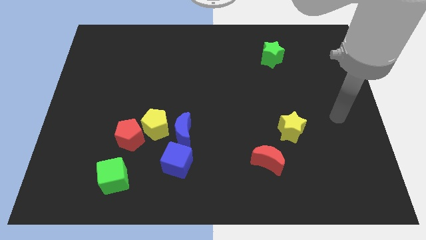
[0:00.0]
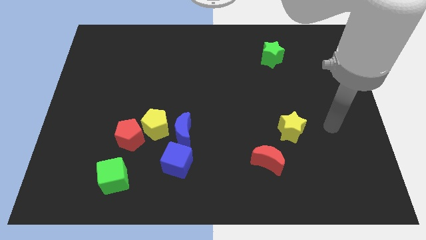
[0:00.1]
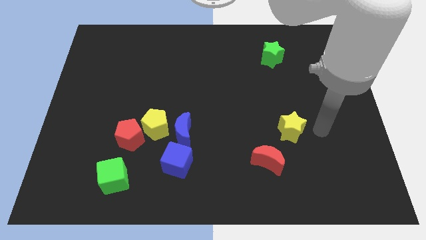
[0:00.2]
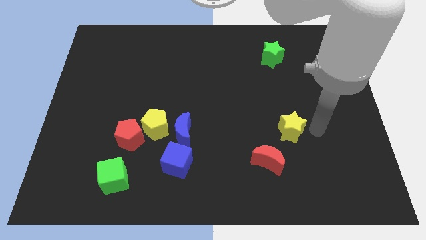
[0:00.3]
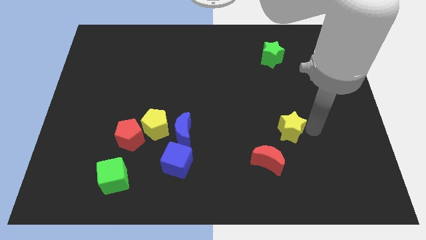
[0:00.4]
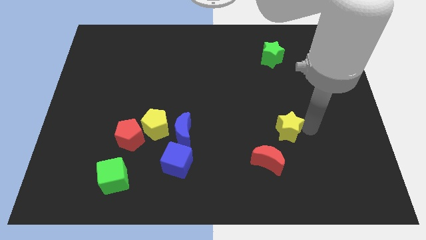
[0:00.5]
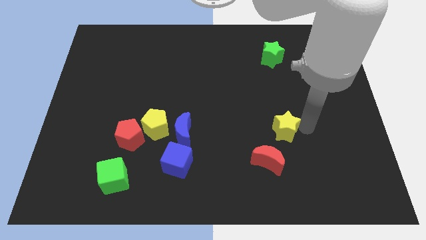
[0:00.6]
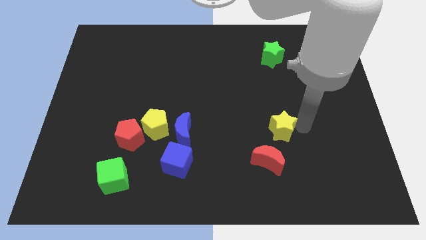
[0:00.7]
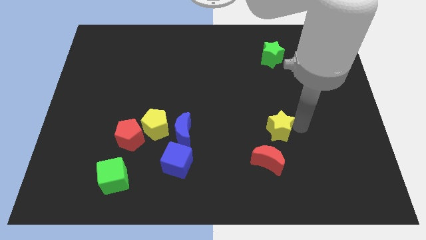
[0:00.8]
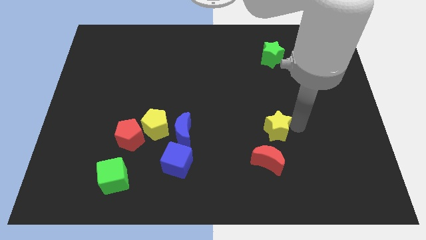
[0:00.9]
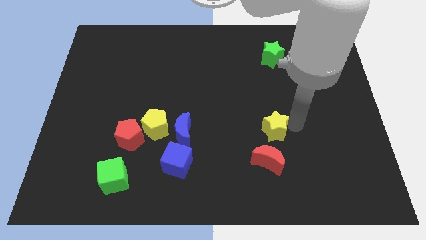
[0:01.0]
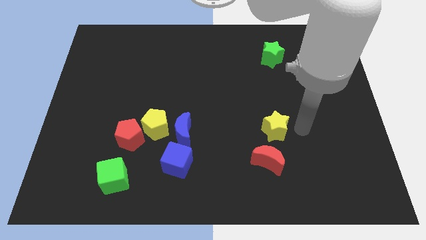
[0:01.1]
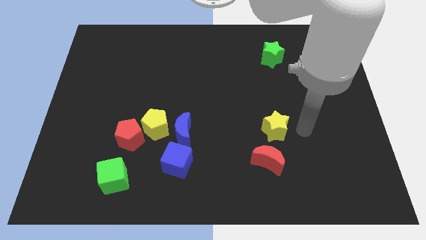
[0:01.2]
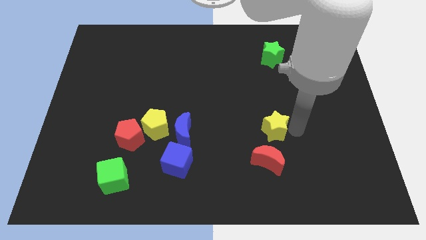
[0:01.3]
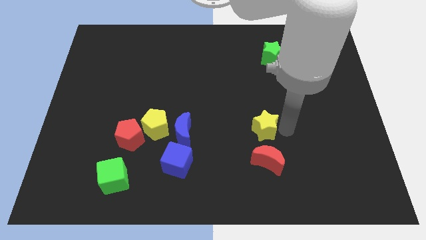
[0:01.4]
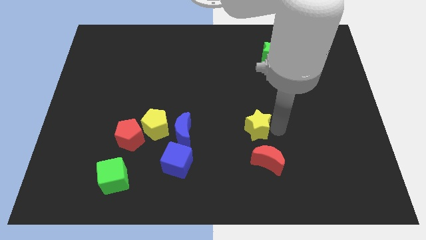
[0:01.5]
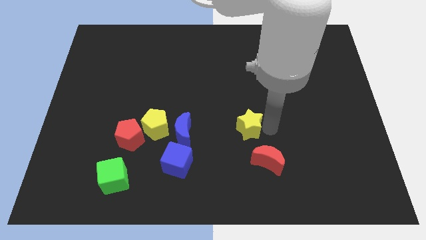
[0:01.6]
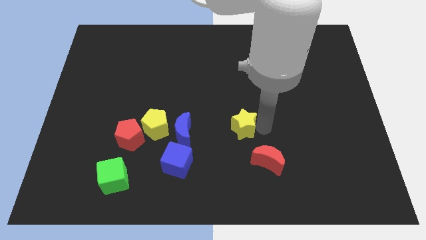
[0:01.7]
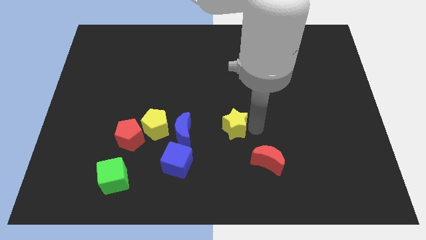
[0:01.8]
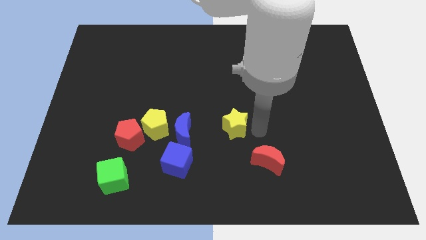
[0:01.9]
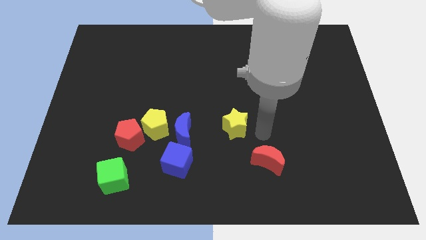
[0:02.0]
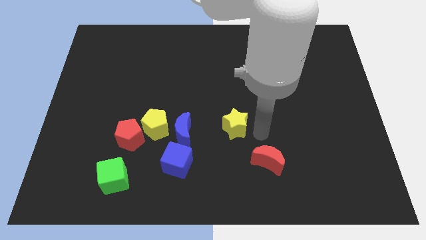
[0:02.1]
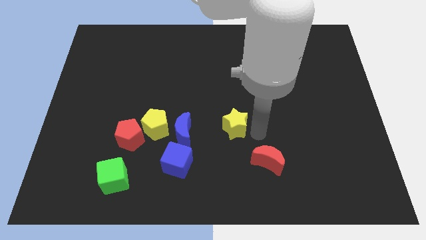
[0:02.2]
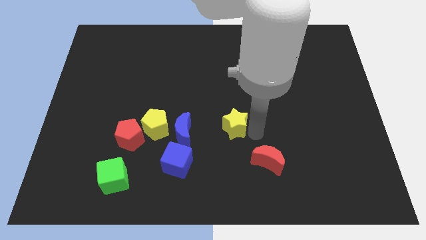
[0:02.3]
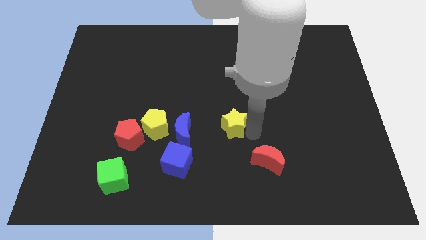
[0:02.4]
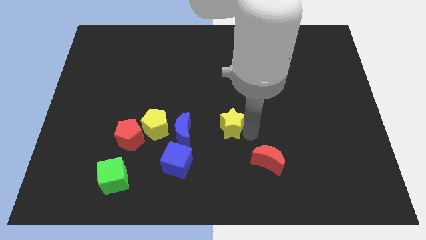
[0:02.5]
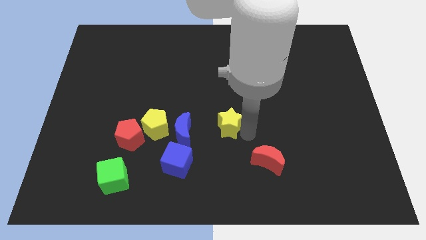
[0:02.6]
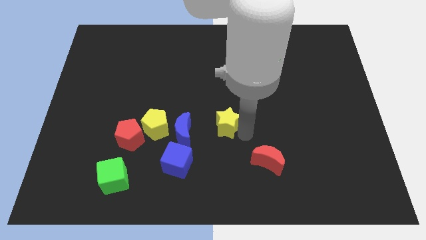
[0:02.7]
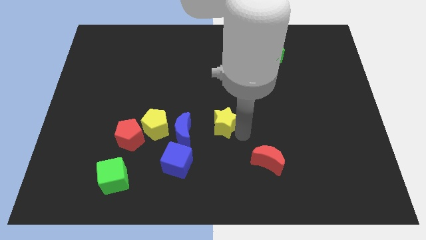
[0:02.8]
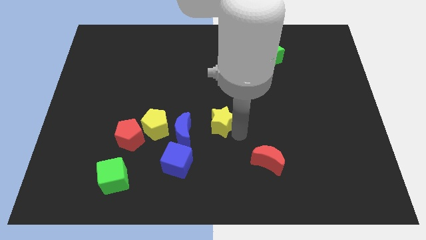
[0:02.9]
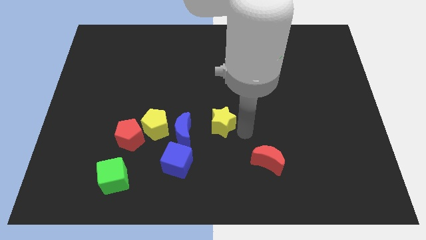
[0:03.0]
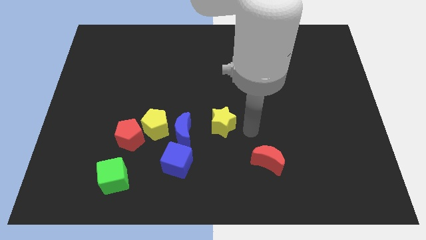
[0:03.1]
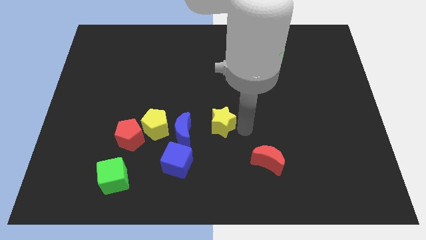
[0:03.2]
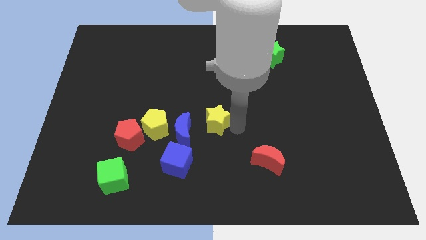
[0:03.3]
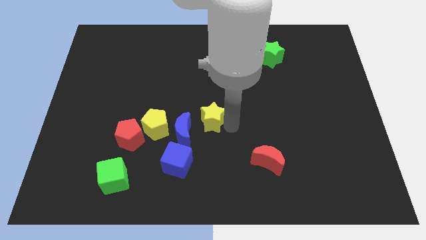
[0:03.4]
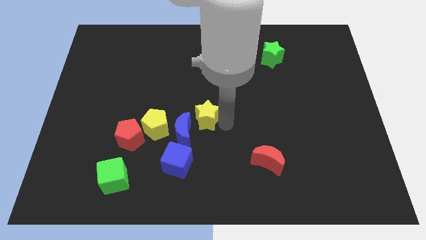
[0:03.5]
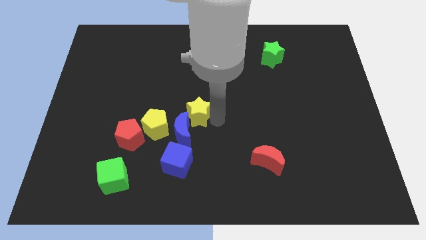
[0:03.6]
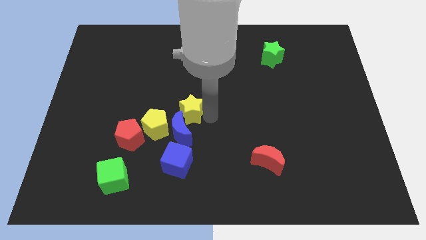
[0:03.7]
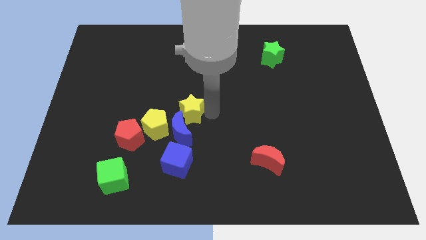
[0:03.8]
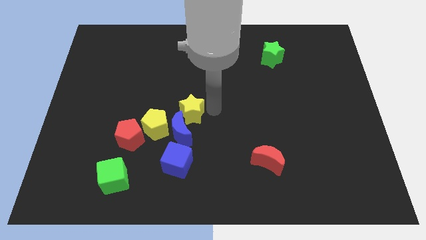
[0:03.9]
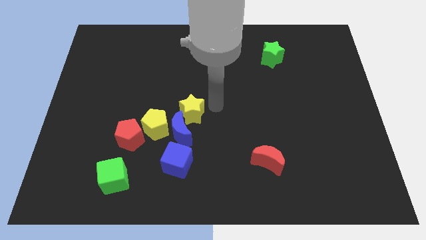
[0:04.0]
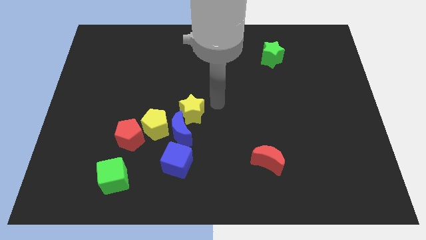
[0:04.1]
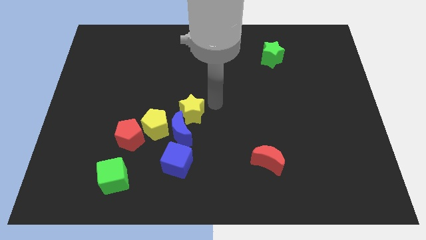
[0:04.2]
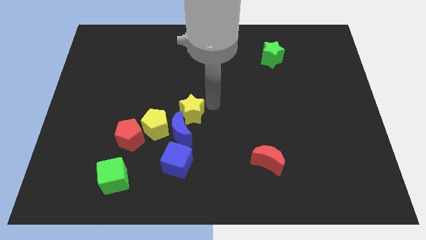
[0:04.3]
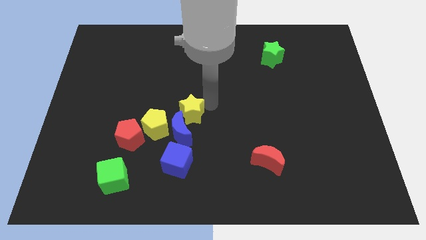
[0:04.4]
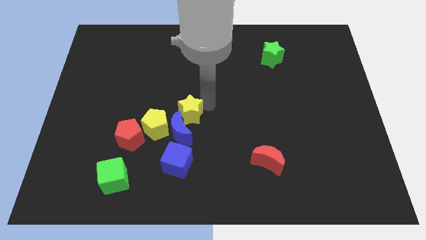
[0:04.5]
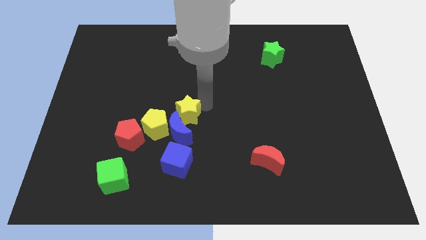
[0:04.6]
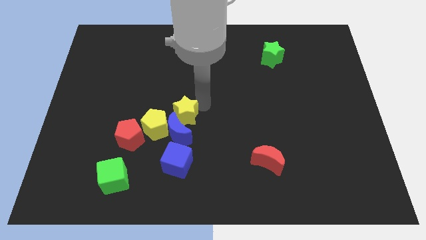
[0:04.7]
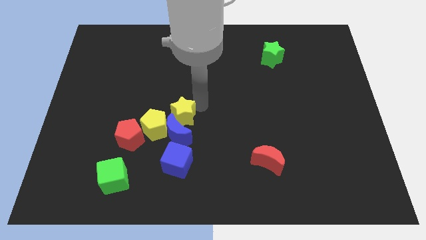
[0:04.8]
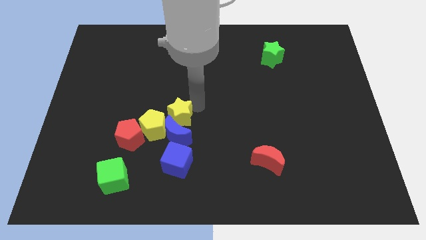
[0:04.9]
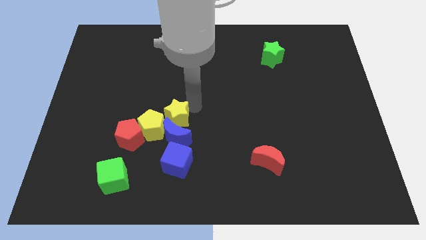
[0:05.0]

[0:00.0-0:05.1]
move the yellow star next to the yellow pentagon

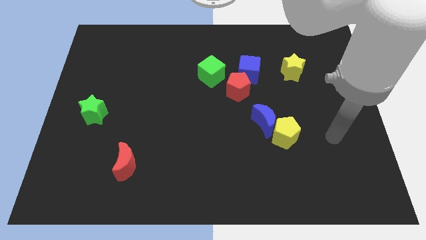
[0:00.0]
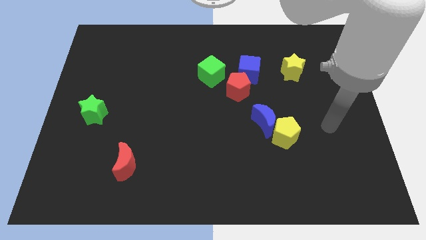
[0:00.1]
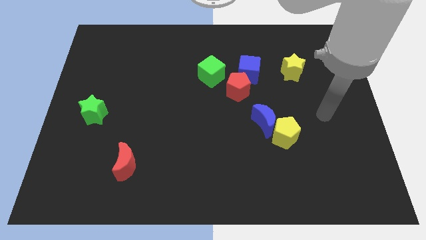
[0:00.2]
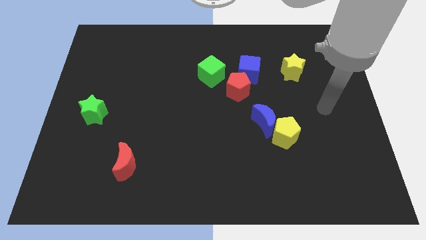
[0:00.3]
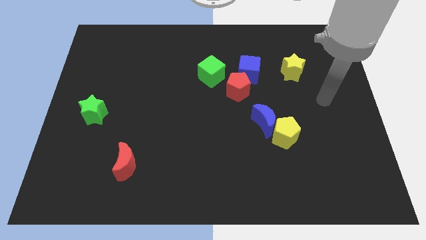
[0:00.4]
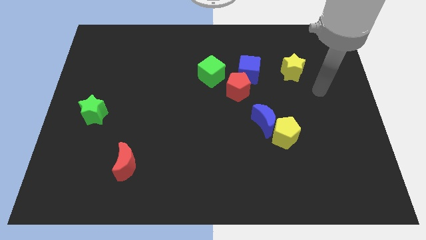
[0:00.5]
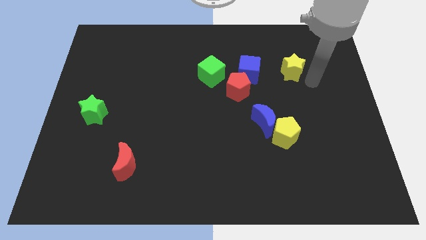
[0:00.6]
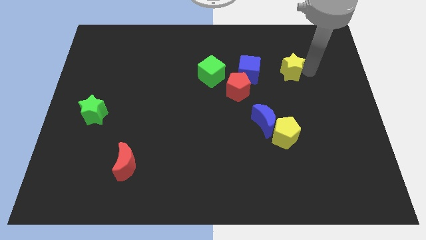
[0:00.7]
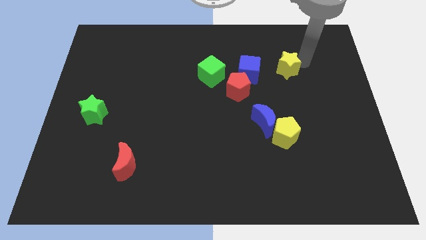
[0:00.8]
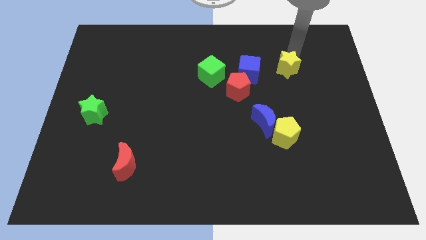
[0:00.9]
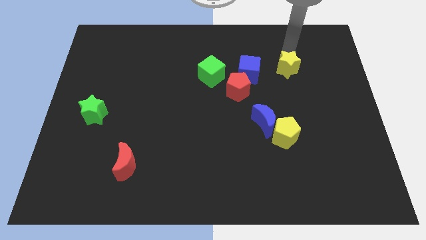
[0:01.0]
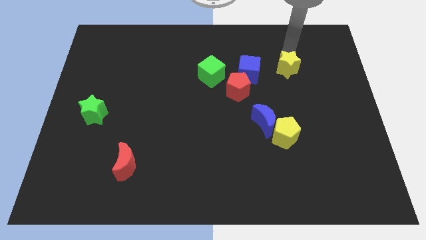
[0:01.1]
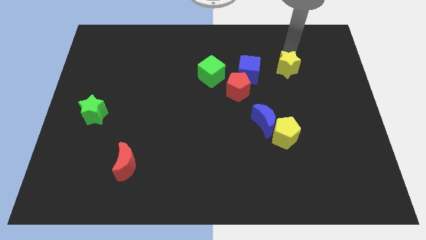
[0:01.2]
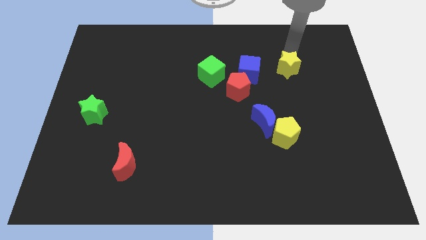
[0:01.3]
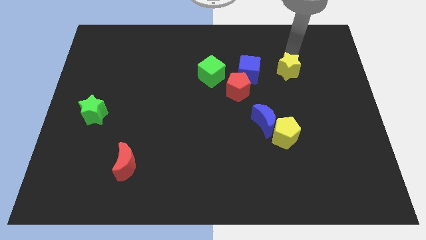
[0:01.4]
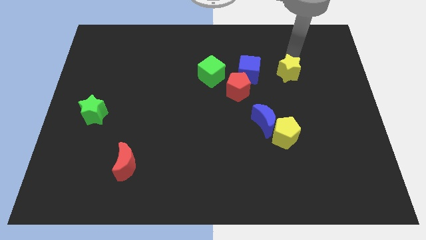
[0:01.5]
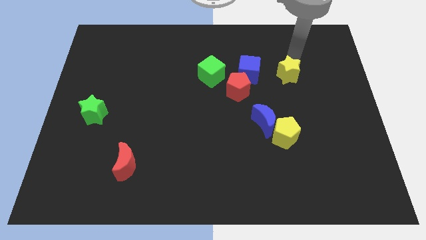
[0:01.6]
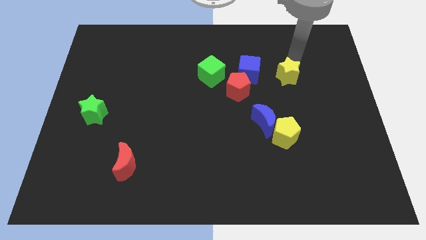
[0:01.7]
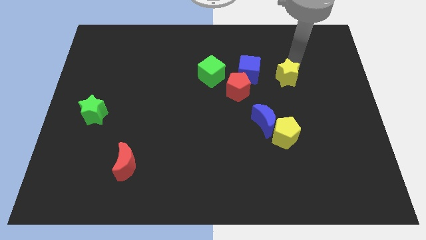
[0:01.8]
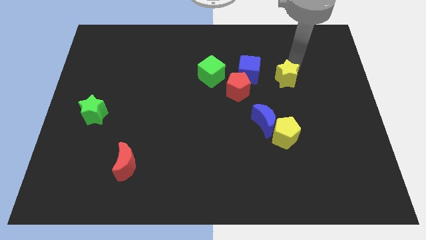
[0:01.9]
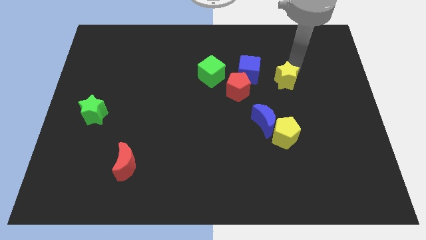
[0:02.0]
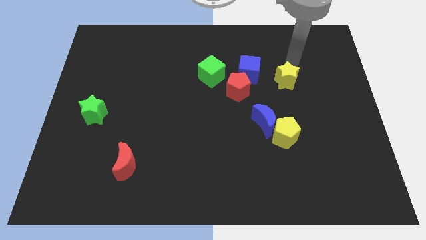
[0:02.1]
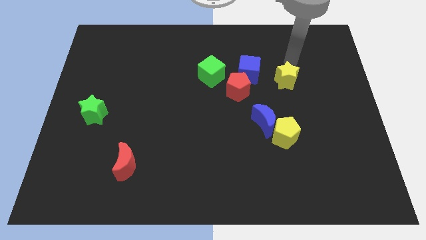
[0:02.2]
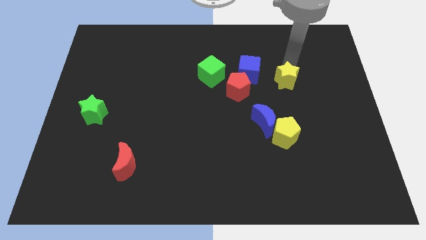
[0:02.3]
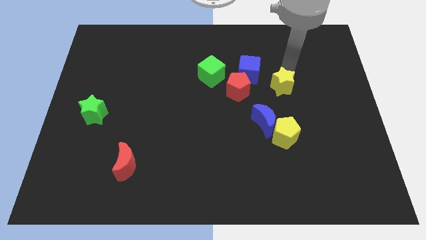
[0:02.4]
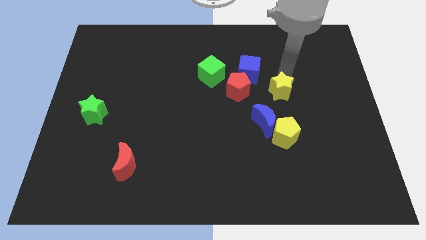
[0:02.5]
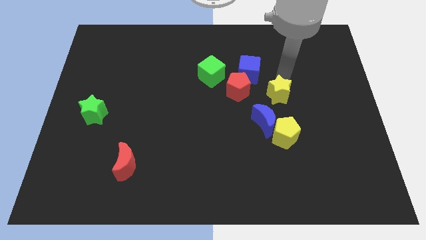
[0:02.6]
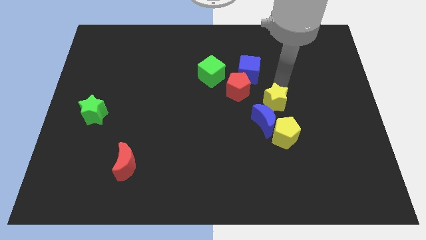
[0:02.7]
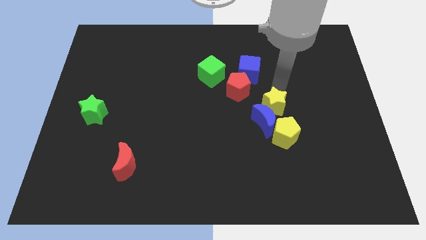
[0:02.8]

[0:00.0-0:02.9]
move the yellow star next to the blue moon
